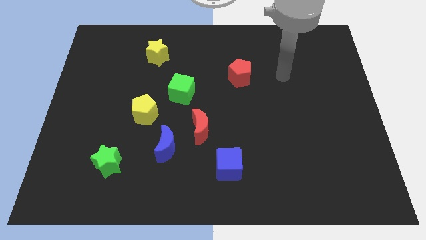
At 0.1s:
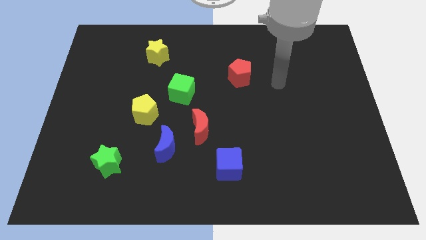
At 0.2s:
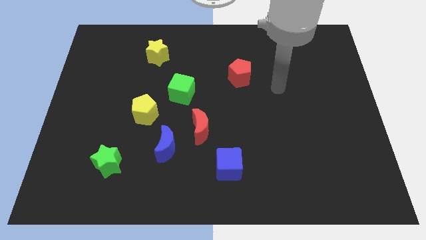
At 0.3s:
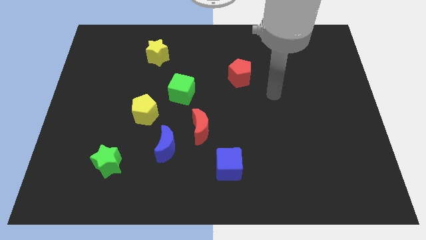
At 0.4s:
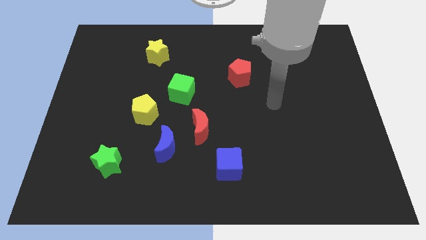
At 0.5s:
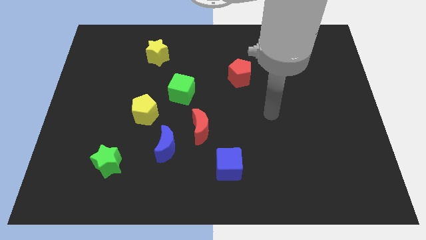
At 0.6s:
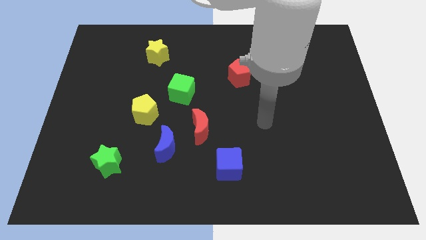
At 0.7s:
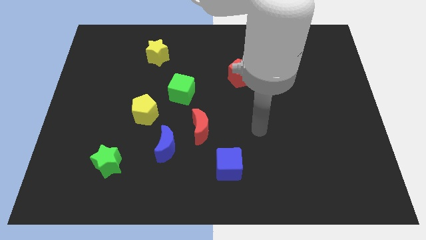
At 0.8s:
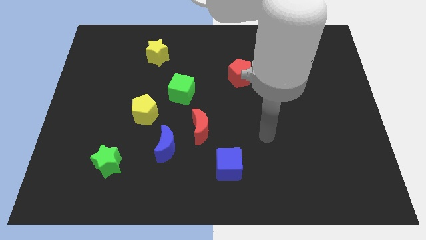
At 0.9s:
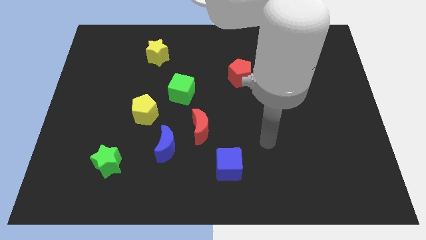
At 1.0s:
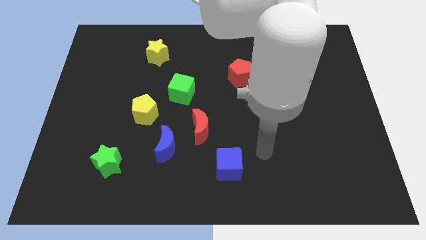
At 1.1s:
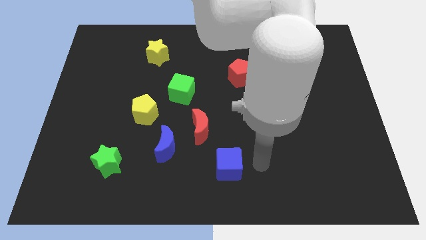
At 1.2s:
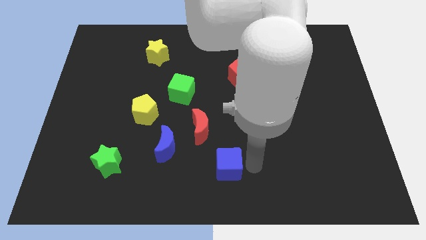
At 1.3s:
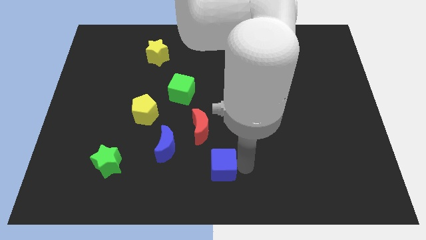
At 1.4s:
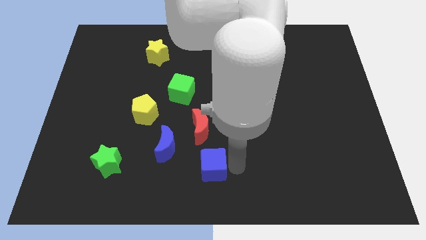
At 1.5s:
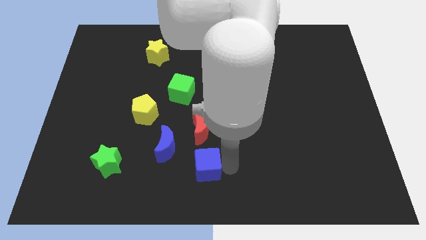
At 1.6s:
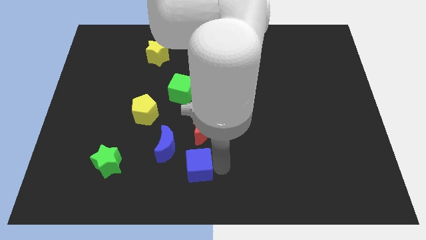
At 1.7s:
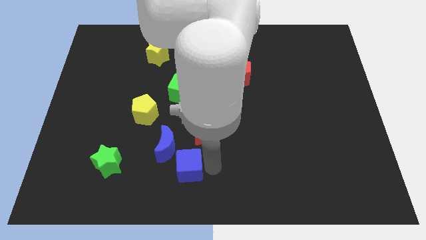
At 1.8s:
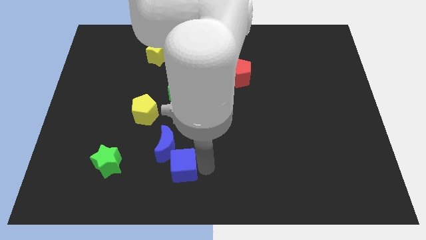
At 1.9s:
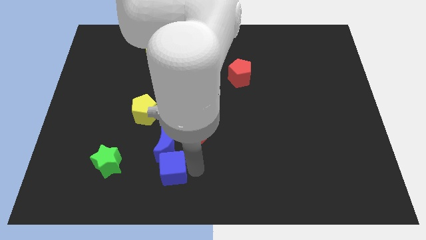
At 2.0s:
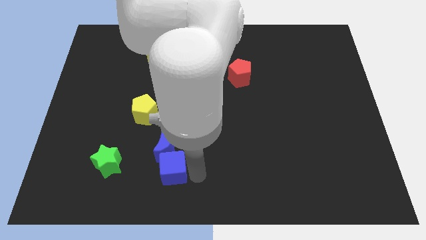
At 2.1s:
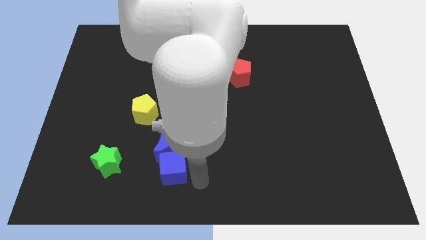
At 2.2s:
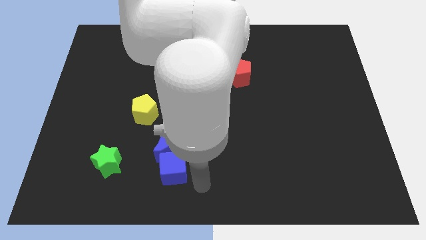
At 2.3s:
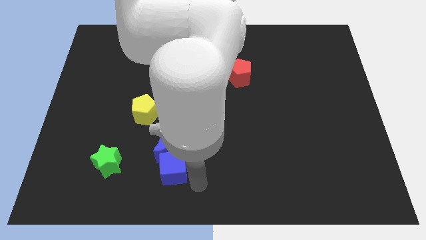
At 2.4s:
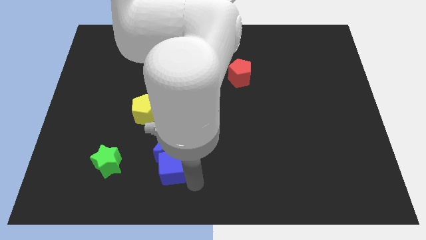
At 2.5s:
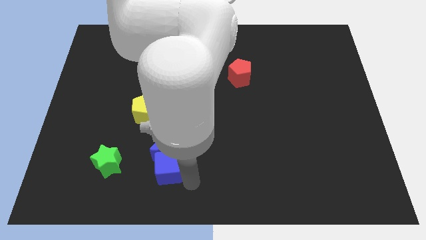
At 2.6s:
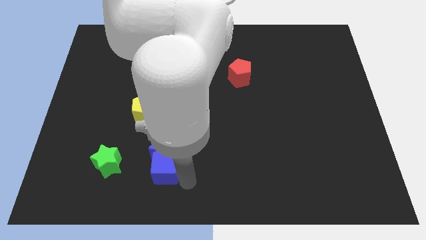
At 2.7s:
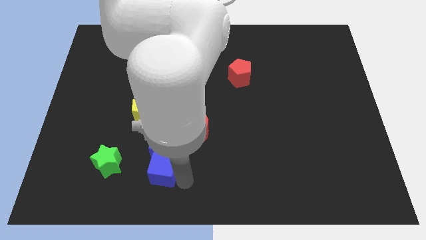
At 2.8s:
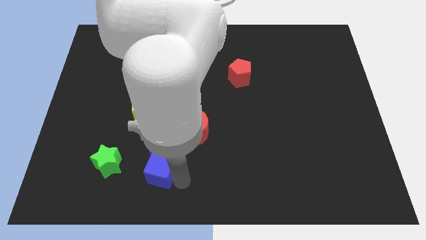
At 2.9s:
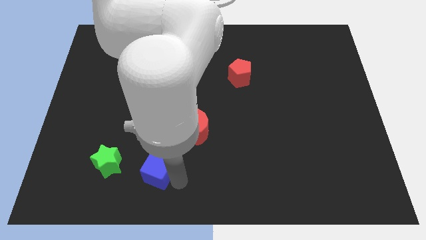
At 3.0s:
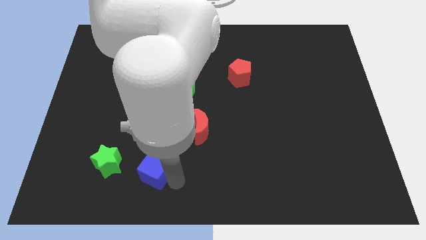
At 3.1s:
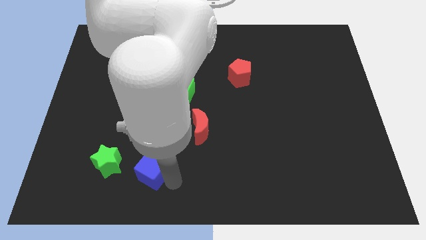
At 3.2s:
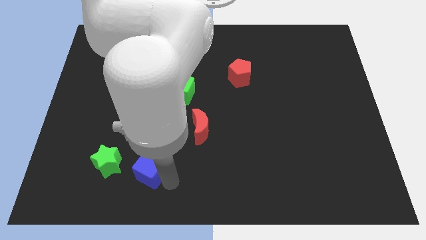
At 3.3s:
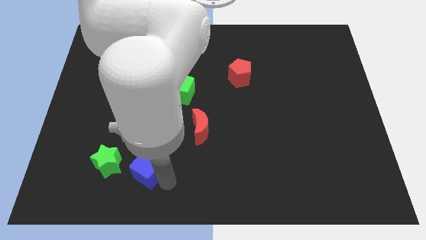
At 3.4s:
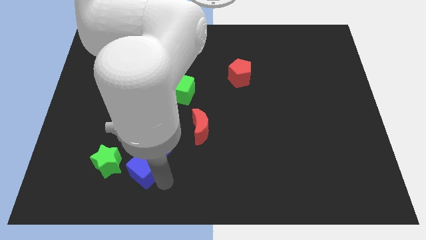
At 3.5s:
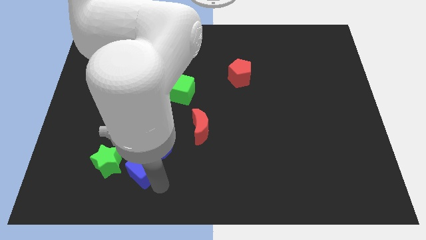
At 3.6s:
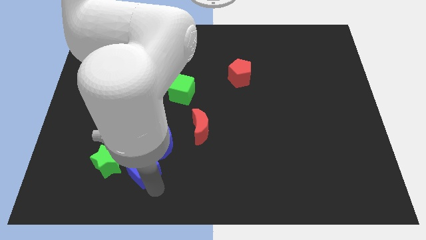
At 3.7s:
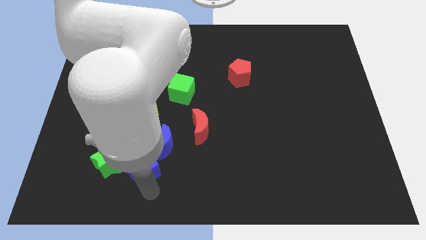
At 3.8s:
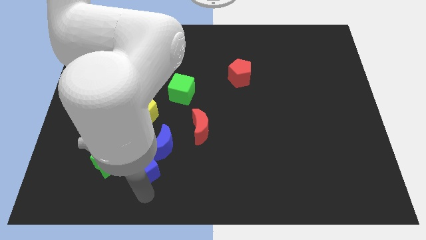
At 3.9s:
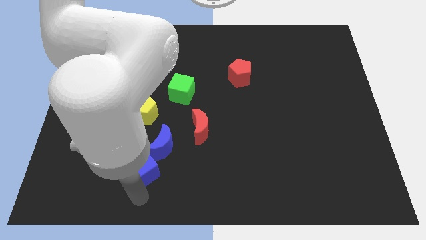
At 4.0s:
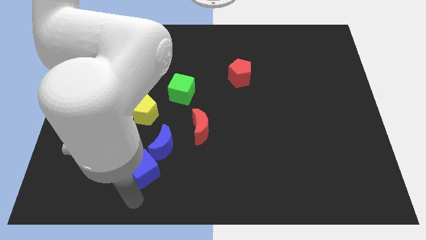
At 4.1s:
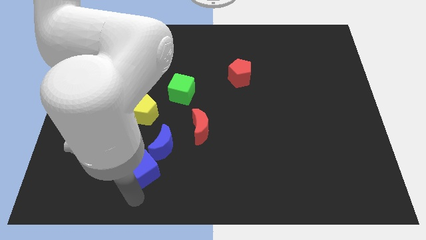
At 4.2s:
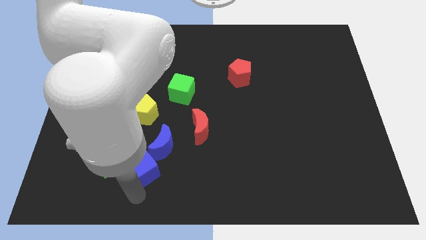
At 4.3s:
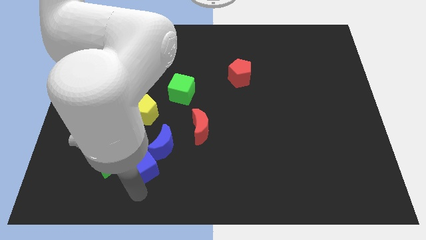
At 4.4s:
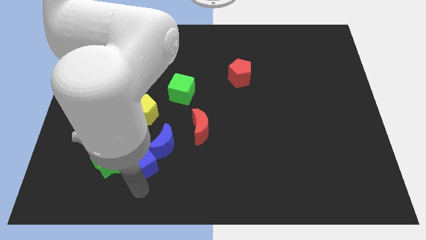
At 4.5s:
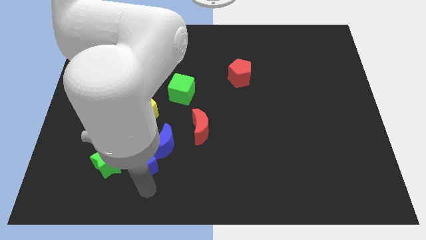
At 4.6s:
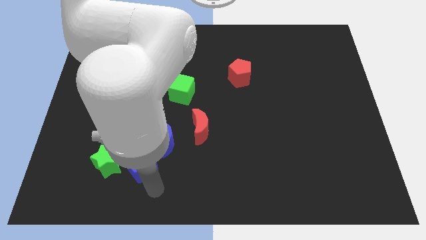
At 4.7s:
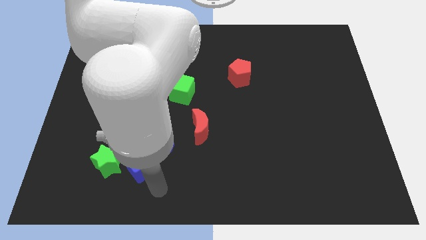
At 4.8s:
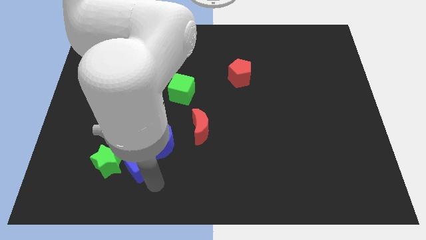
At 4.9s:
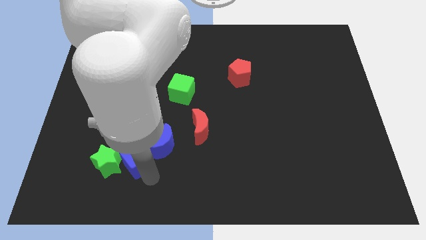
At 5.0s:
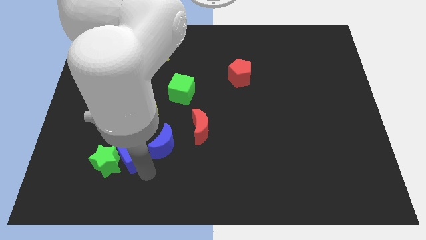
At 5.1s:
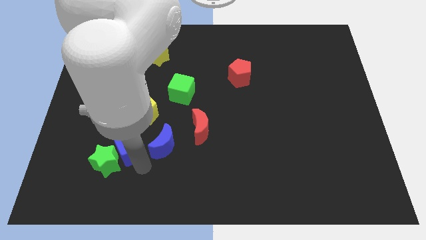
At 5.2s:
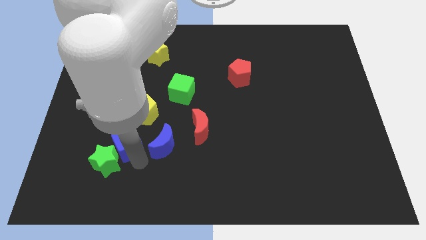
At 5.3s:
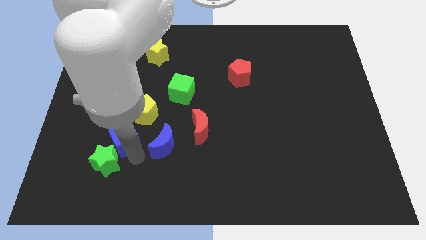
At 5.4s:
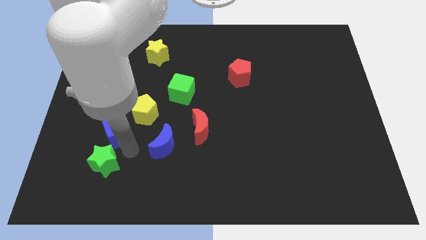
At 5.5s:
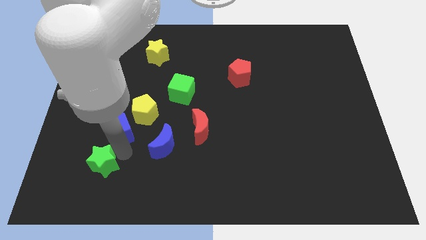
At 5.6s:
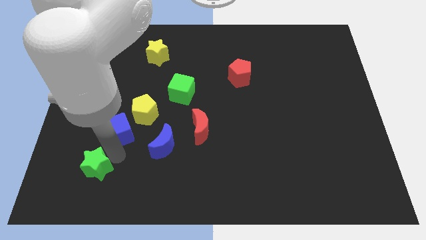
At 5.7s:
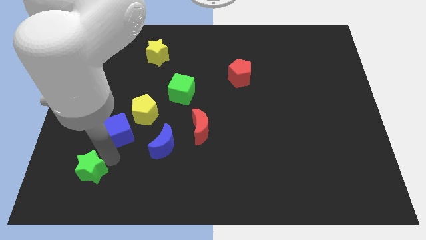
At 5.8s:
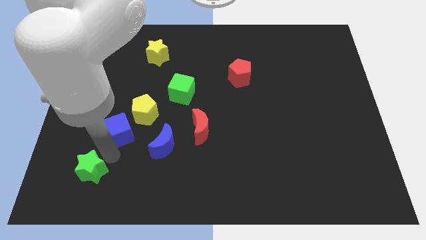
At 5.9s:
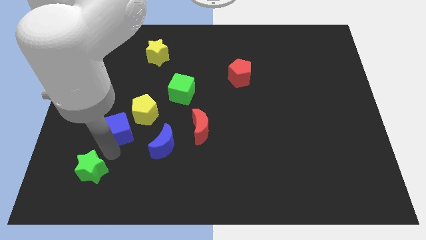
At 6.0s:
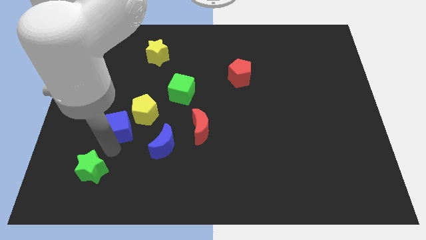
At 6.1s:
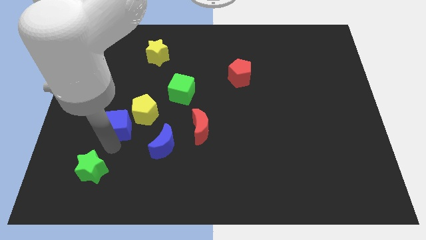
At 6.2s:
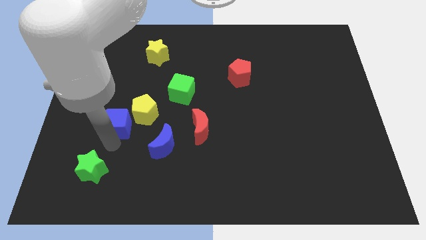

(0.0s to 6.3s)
push the blue cube diagonally up and to the left

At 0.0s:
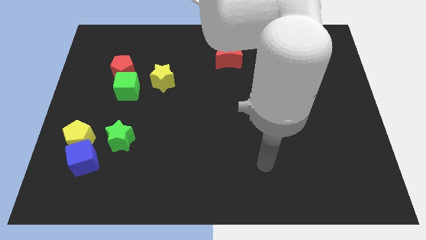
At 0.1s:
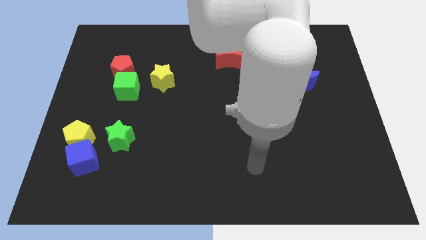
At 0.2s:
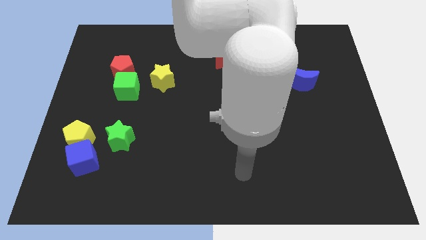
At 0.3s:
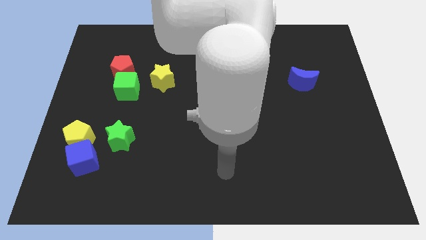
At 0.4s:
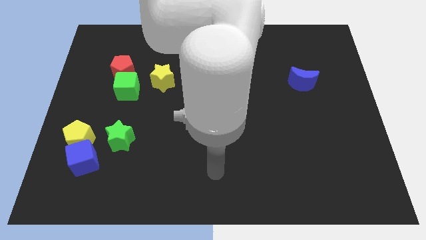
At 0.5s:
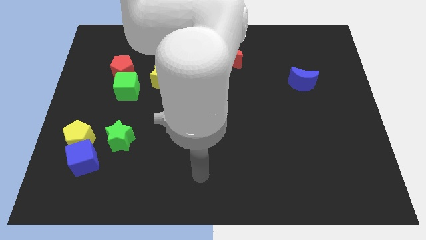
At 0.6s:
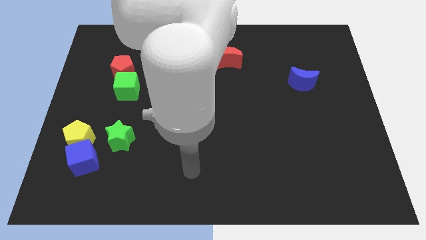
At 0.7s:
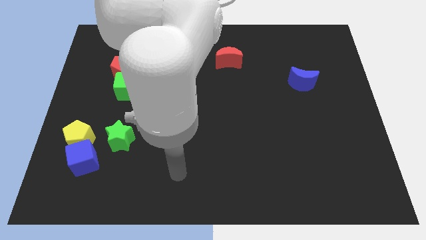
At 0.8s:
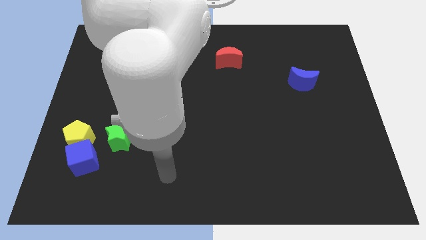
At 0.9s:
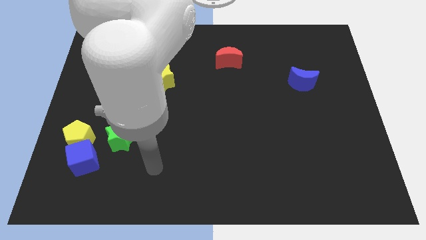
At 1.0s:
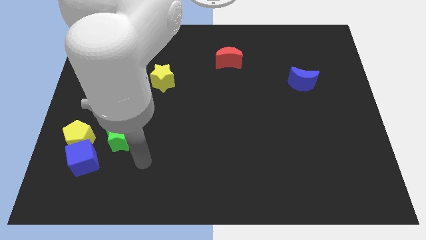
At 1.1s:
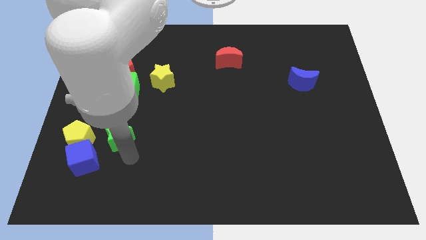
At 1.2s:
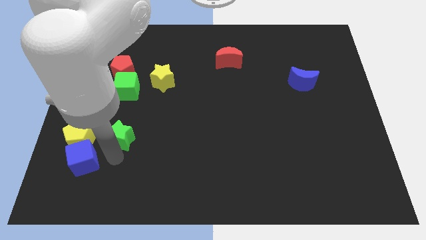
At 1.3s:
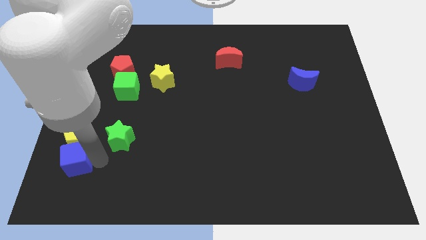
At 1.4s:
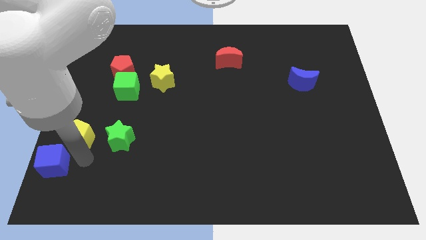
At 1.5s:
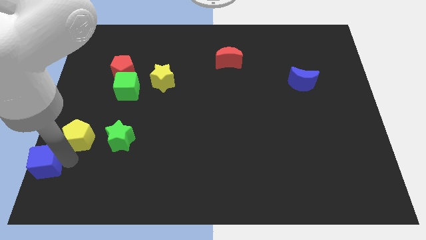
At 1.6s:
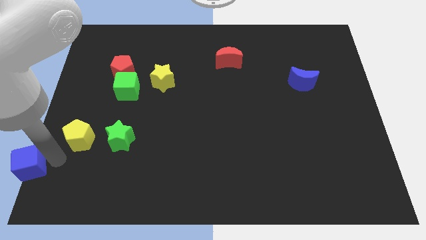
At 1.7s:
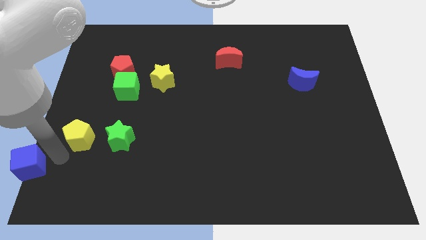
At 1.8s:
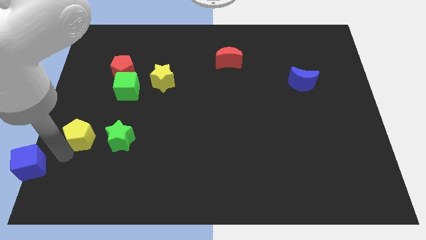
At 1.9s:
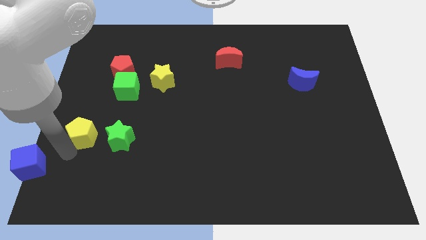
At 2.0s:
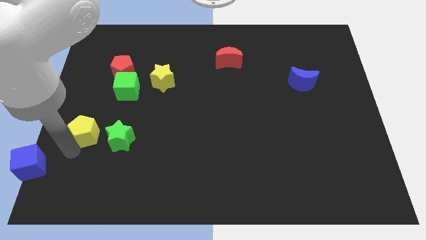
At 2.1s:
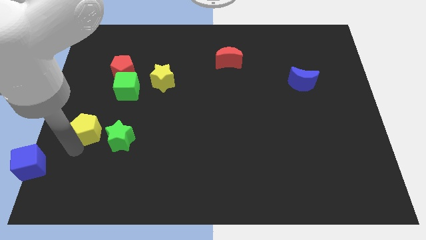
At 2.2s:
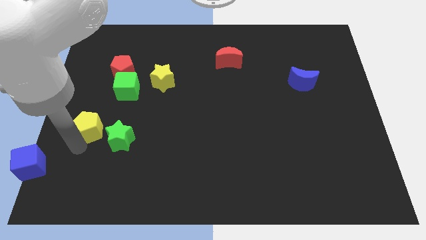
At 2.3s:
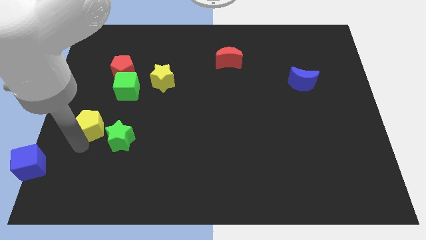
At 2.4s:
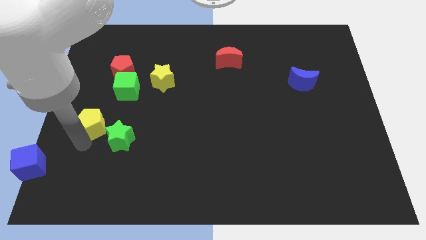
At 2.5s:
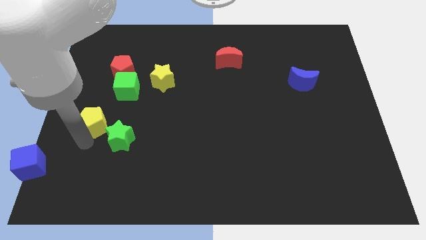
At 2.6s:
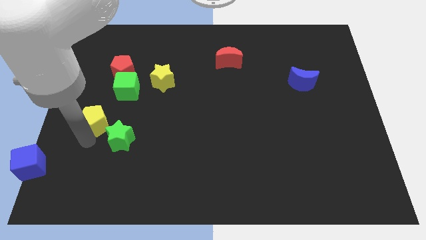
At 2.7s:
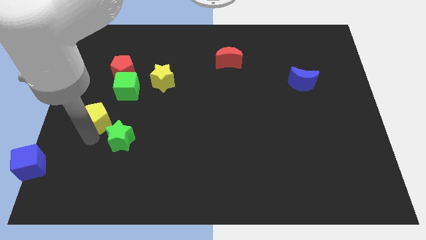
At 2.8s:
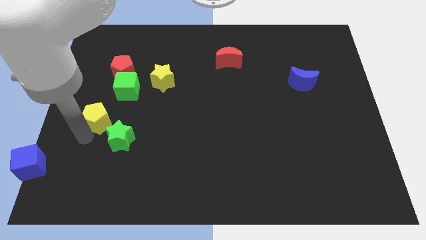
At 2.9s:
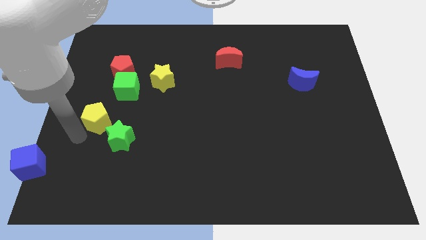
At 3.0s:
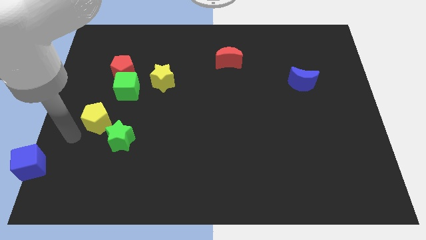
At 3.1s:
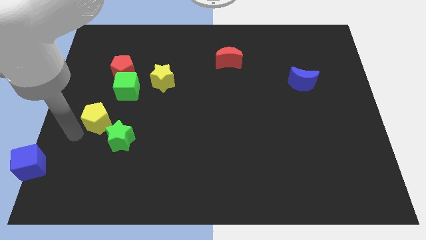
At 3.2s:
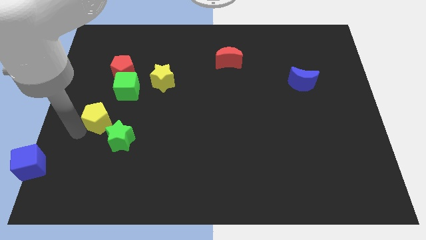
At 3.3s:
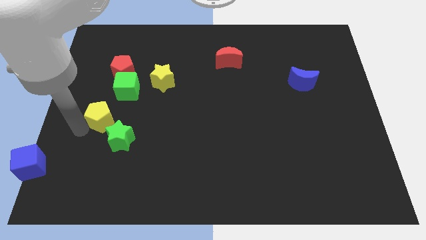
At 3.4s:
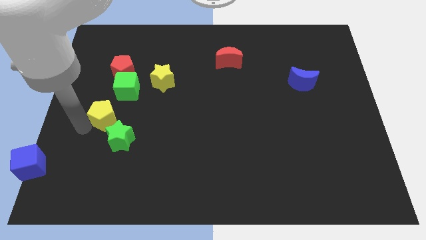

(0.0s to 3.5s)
slightly slide the yellow pentagon up and to the right diagonally
